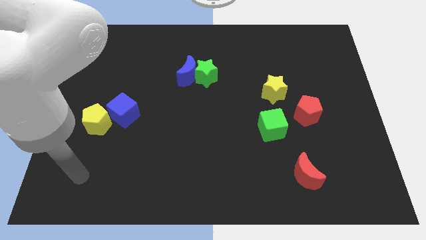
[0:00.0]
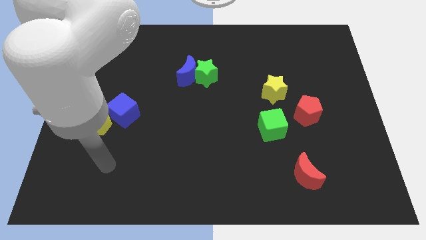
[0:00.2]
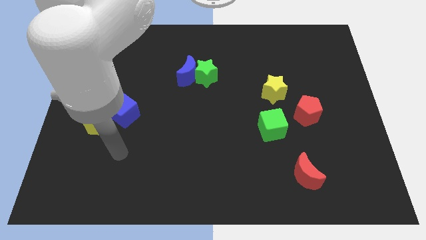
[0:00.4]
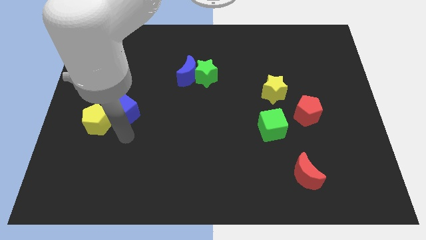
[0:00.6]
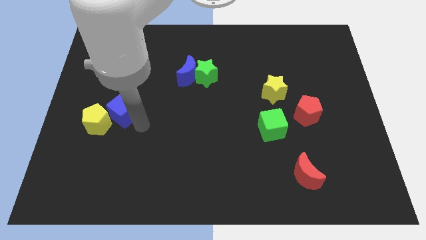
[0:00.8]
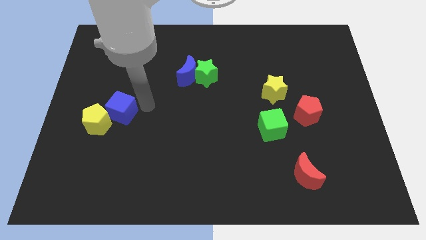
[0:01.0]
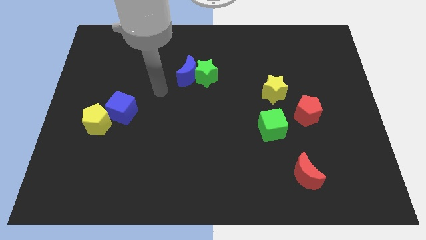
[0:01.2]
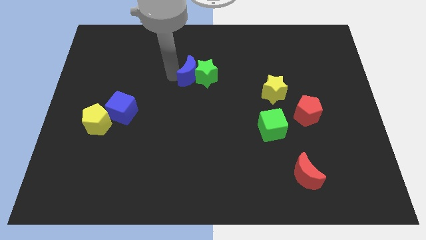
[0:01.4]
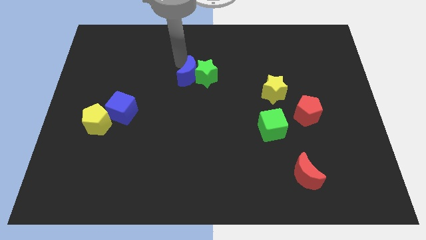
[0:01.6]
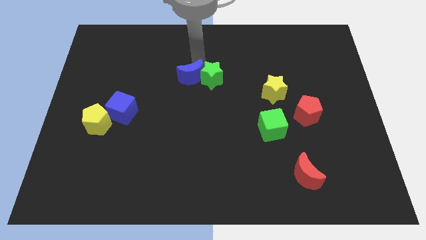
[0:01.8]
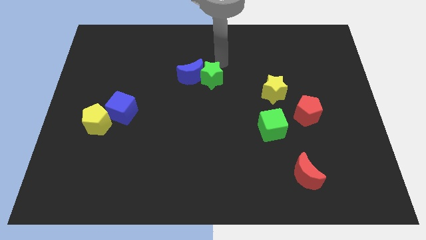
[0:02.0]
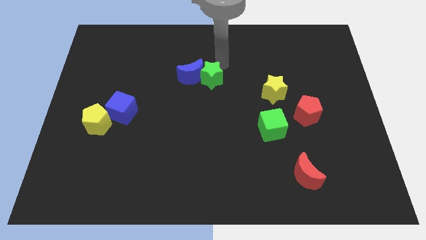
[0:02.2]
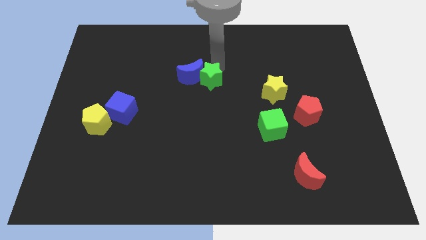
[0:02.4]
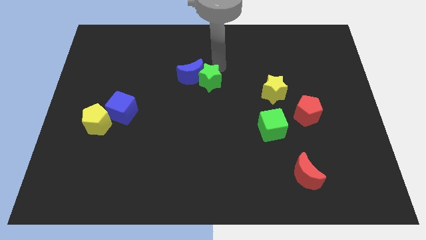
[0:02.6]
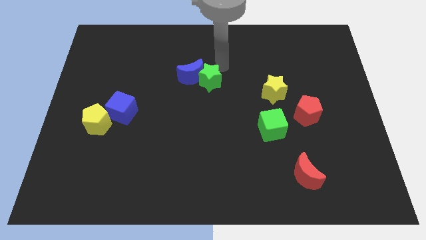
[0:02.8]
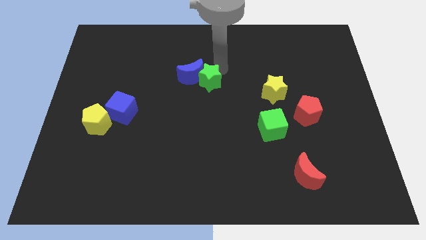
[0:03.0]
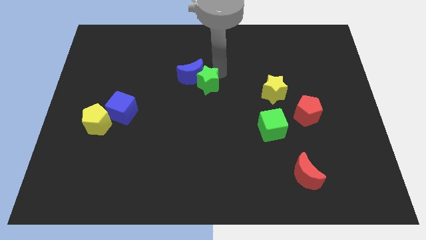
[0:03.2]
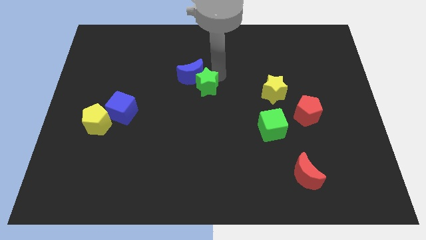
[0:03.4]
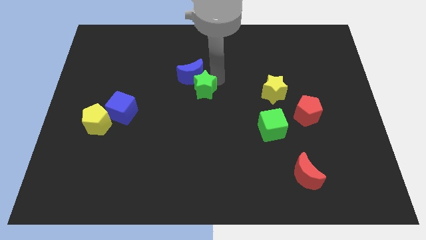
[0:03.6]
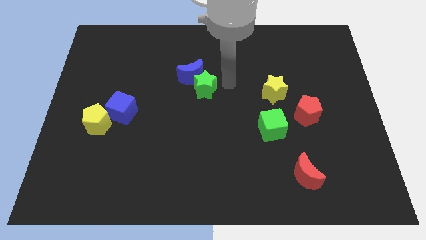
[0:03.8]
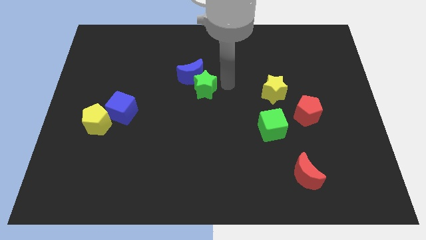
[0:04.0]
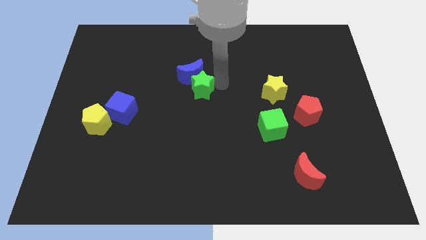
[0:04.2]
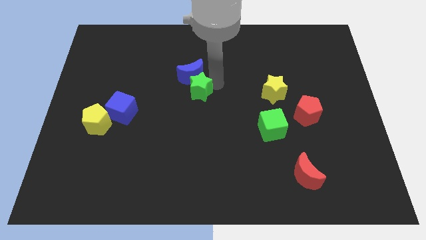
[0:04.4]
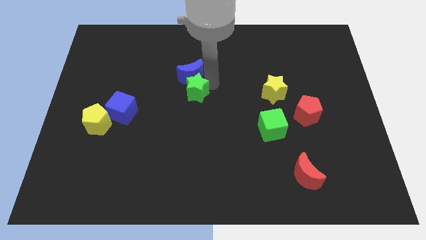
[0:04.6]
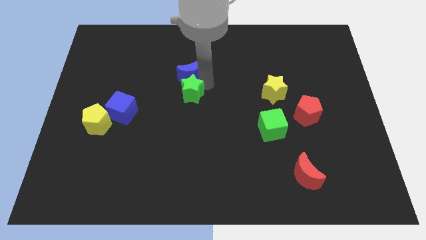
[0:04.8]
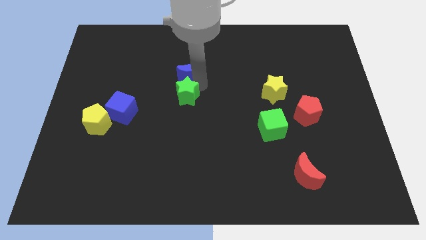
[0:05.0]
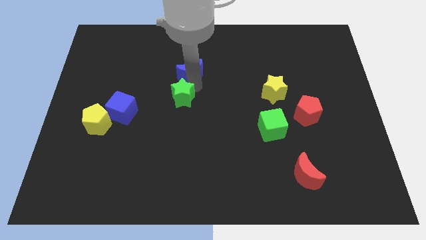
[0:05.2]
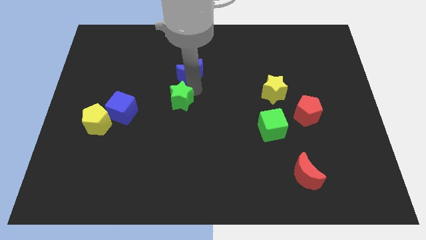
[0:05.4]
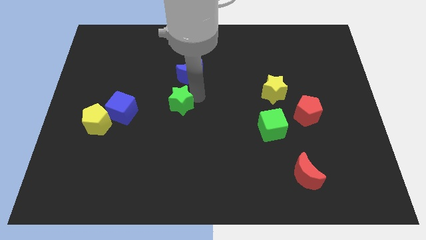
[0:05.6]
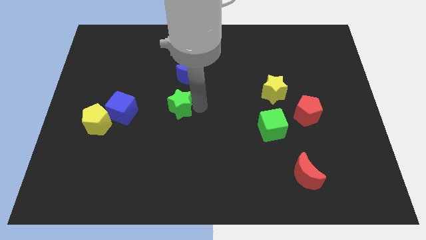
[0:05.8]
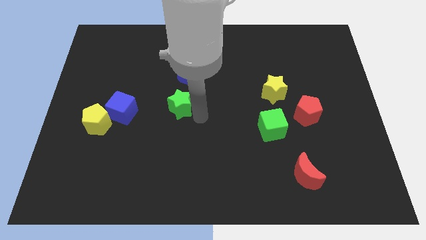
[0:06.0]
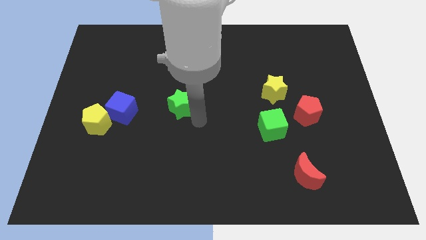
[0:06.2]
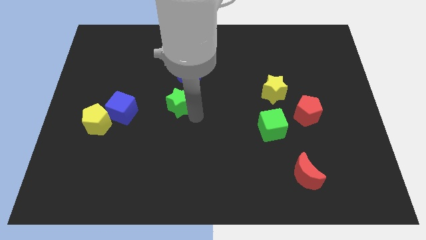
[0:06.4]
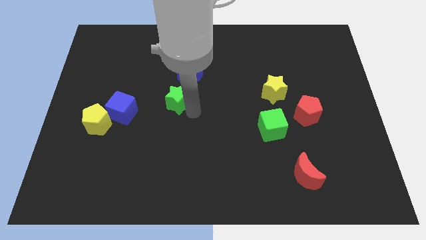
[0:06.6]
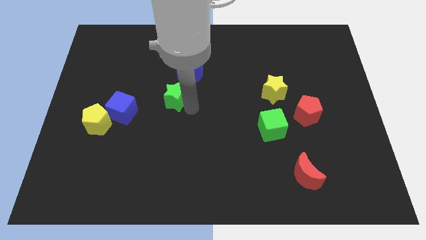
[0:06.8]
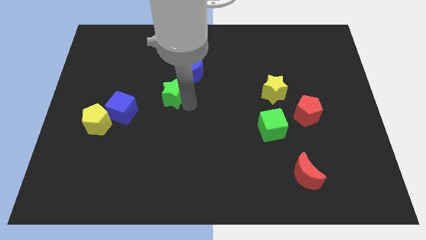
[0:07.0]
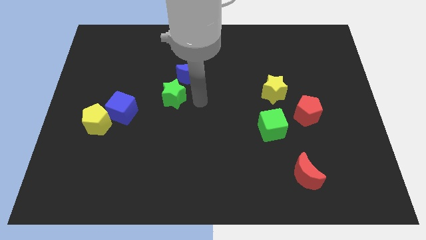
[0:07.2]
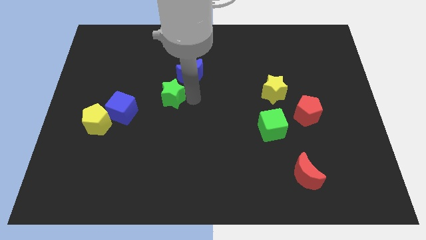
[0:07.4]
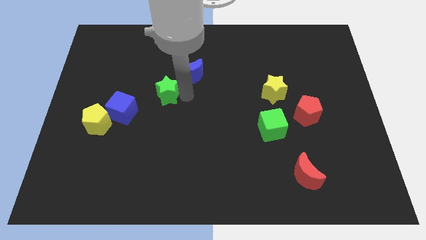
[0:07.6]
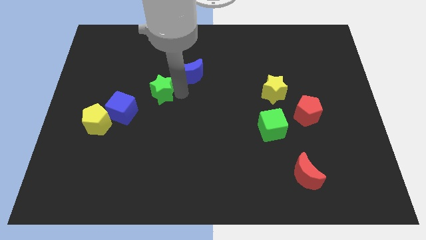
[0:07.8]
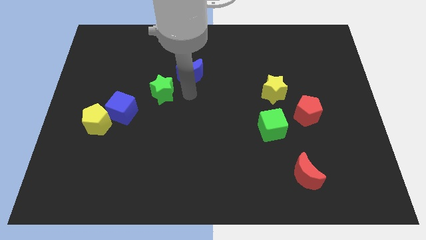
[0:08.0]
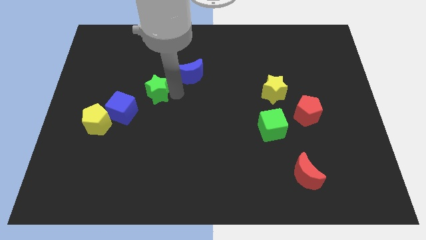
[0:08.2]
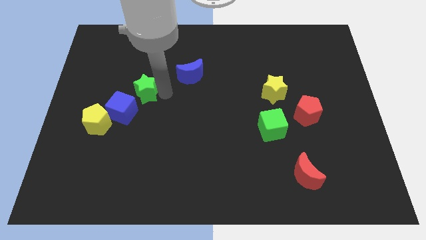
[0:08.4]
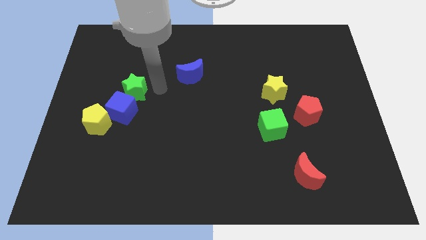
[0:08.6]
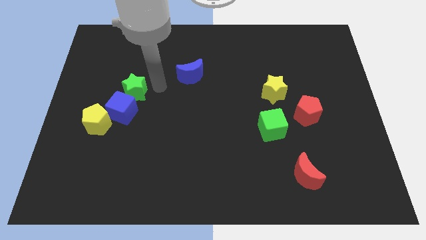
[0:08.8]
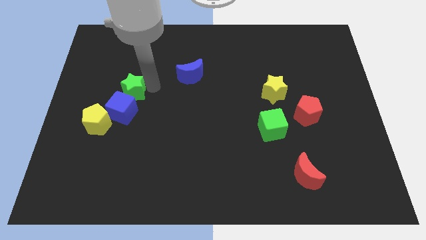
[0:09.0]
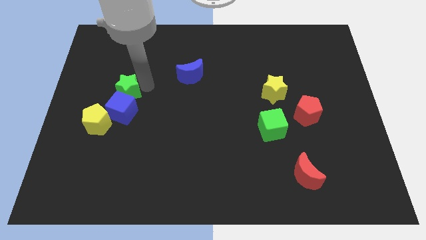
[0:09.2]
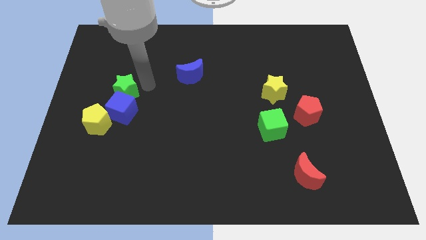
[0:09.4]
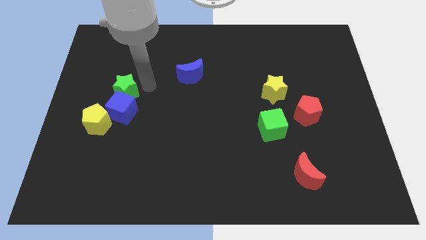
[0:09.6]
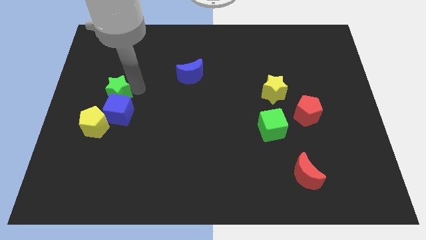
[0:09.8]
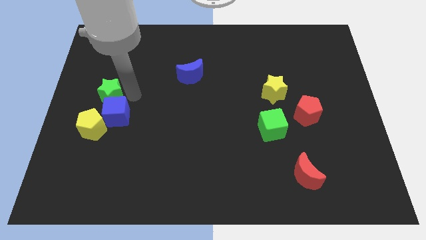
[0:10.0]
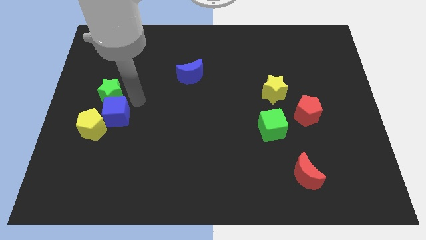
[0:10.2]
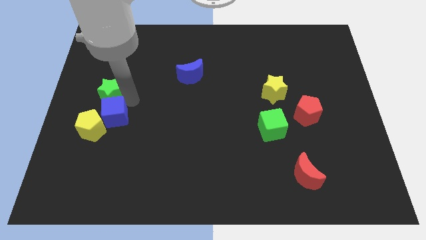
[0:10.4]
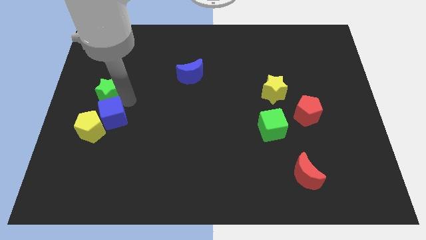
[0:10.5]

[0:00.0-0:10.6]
move the green star to the left side of the board

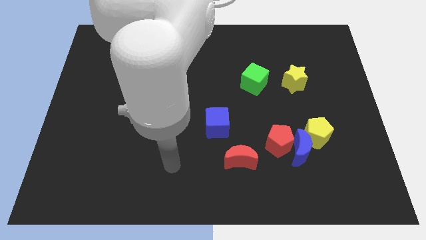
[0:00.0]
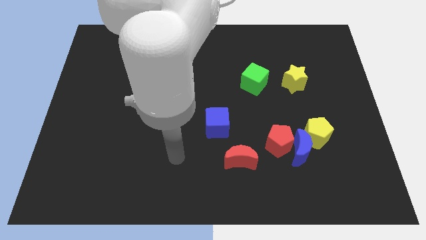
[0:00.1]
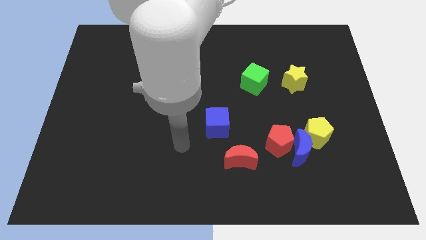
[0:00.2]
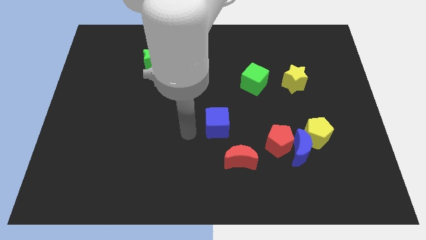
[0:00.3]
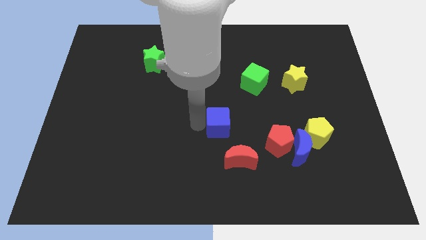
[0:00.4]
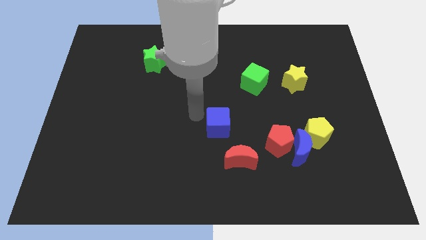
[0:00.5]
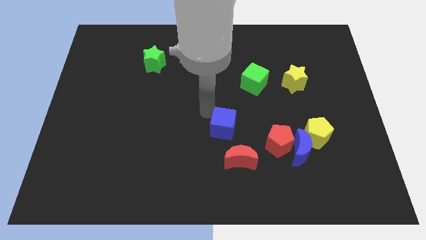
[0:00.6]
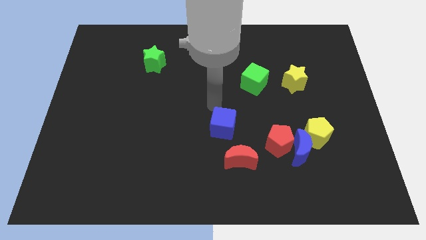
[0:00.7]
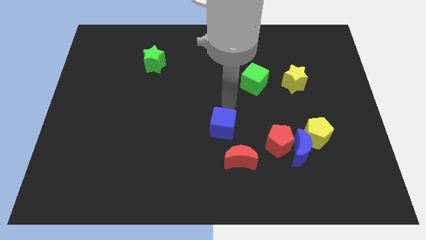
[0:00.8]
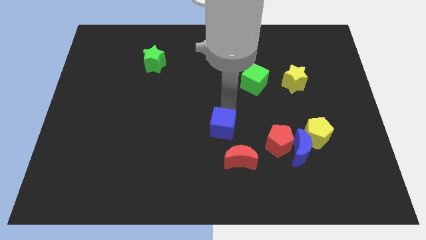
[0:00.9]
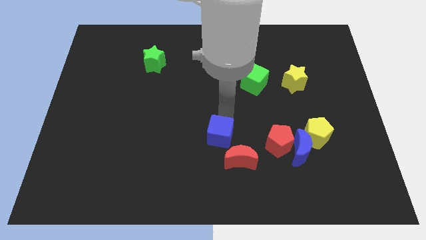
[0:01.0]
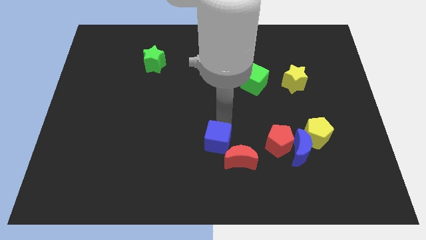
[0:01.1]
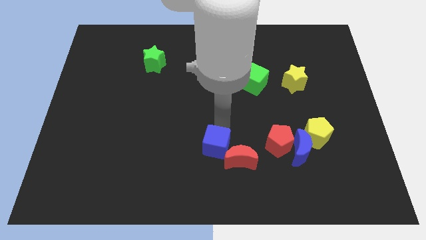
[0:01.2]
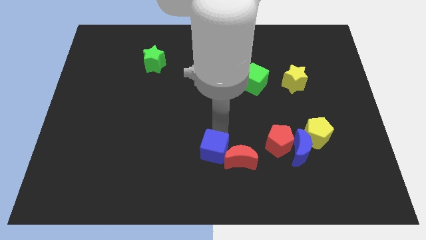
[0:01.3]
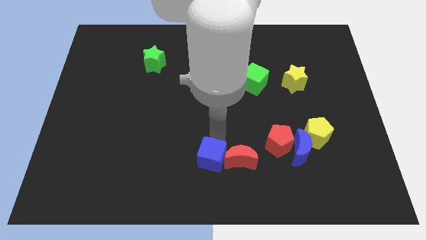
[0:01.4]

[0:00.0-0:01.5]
push the blue cube to the bottom side
